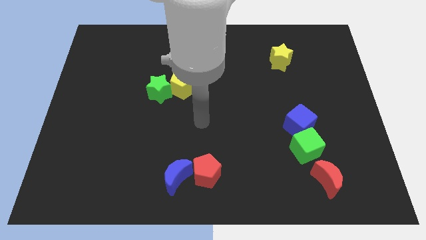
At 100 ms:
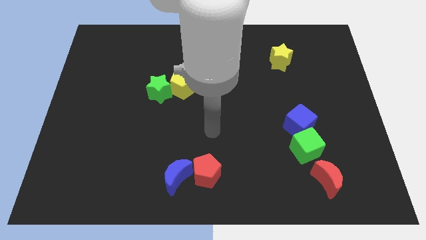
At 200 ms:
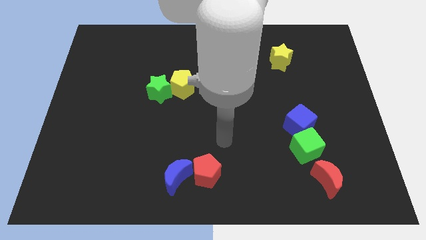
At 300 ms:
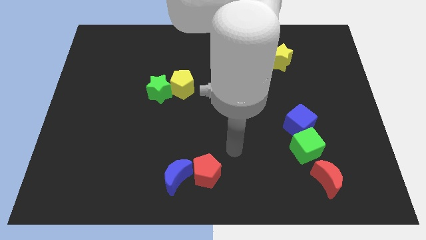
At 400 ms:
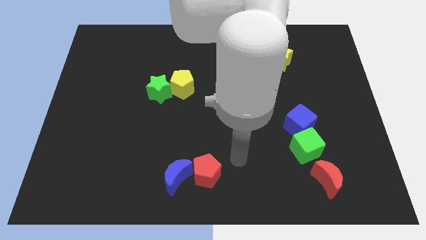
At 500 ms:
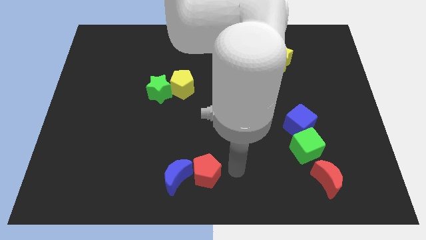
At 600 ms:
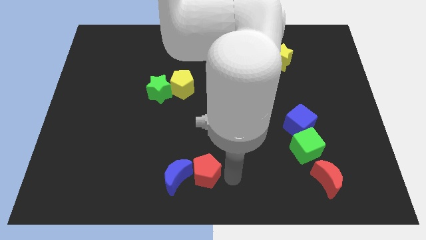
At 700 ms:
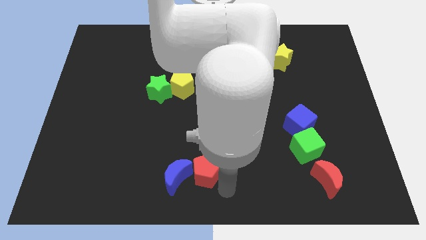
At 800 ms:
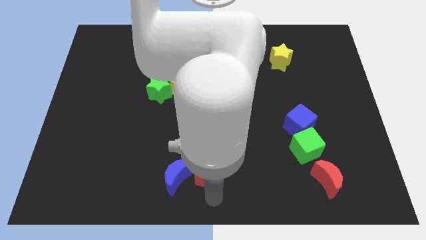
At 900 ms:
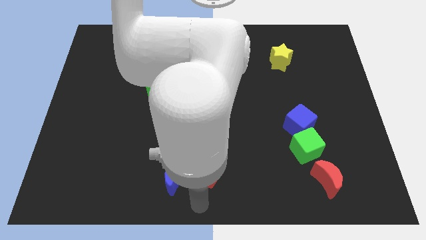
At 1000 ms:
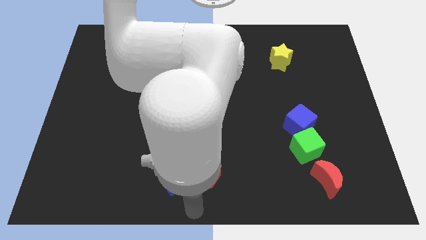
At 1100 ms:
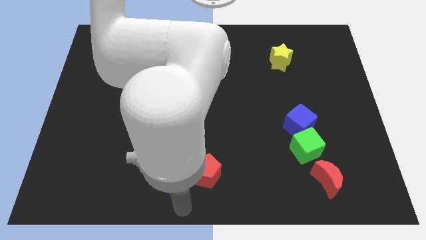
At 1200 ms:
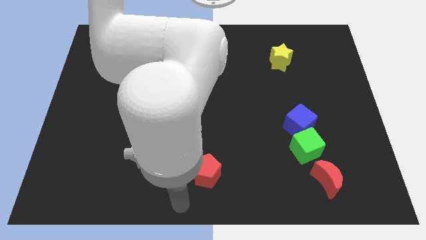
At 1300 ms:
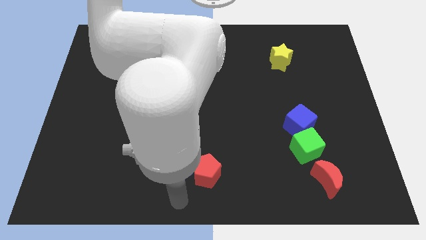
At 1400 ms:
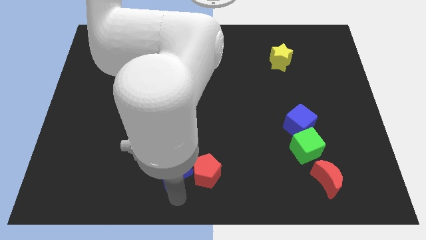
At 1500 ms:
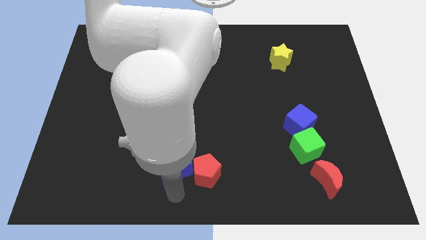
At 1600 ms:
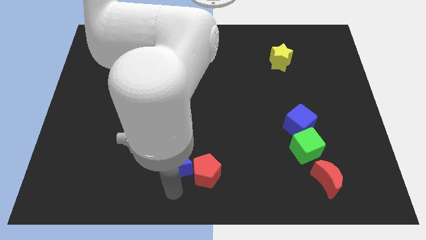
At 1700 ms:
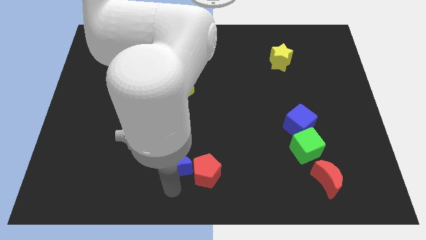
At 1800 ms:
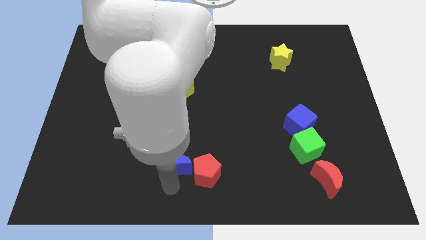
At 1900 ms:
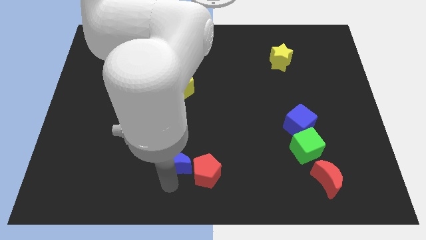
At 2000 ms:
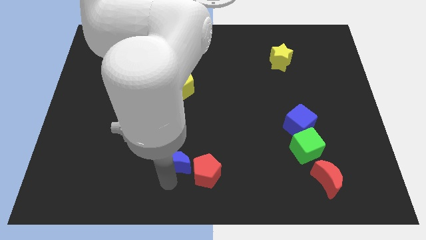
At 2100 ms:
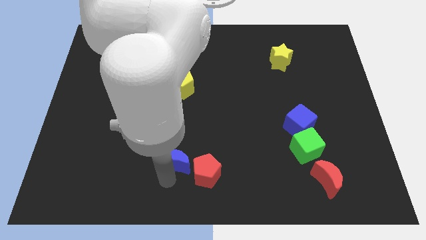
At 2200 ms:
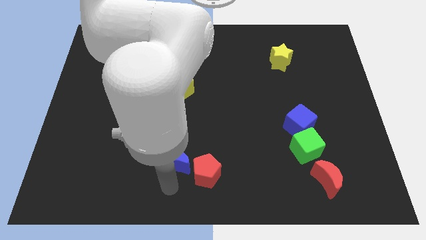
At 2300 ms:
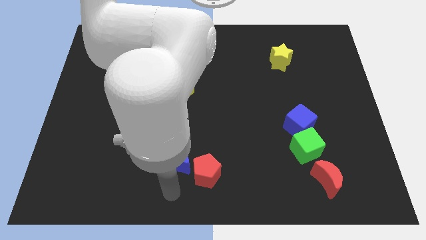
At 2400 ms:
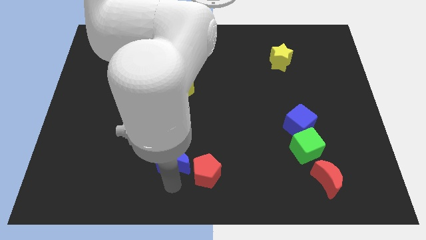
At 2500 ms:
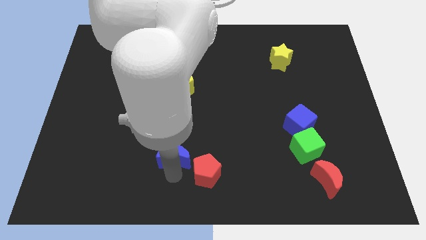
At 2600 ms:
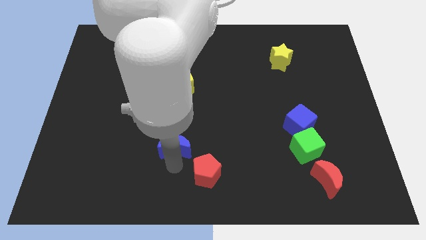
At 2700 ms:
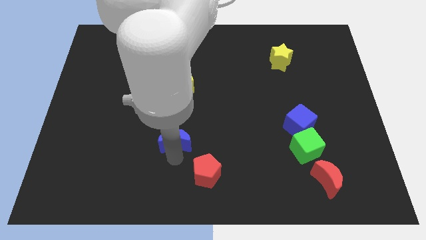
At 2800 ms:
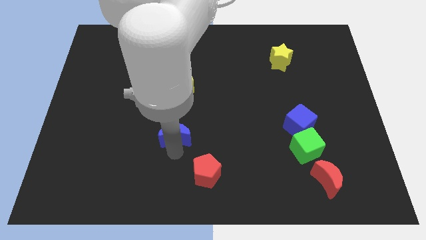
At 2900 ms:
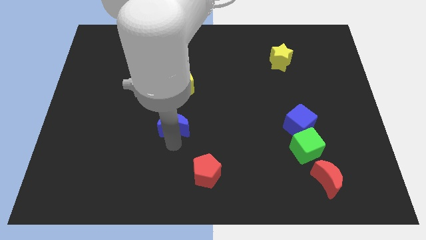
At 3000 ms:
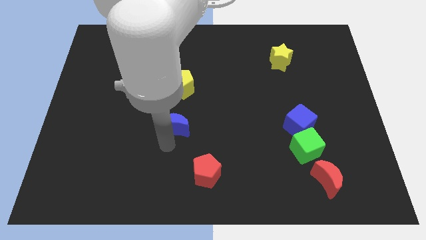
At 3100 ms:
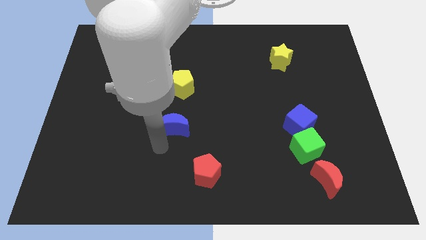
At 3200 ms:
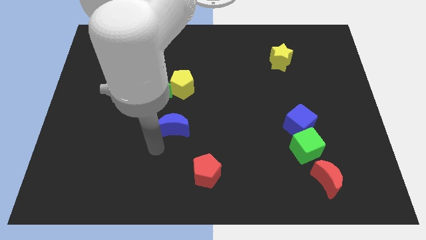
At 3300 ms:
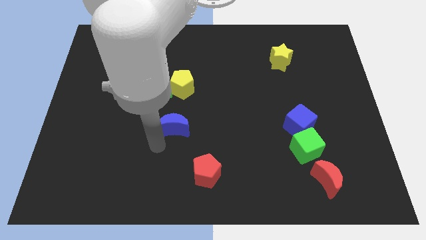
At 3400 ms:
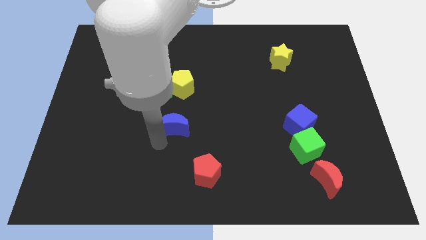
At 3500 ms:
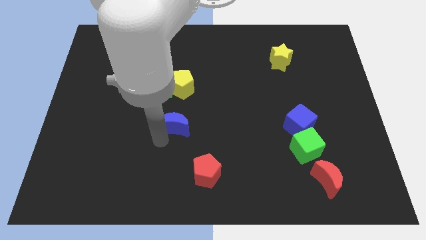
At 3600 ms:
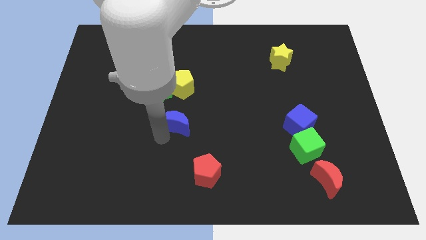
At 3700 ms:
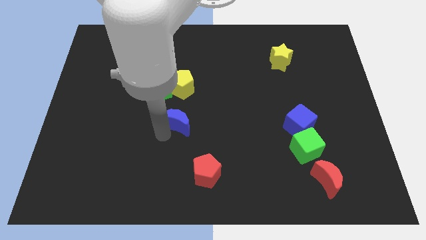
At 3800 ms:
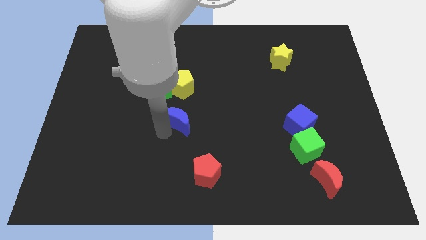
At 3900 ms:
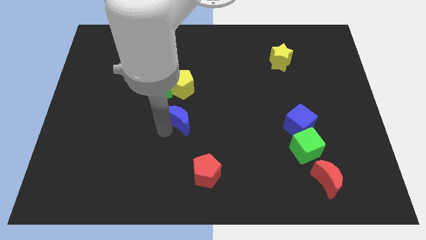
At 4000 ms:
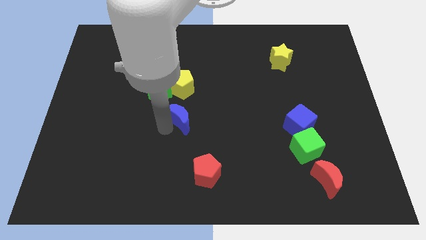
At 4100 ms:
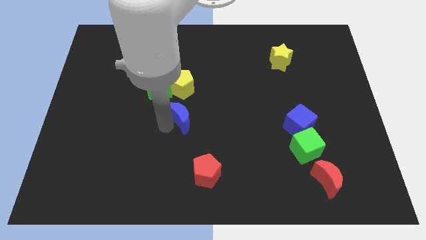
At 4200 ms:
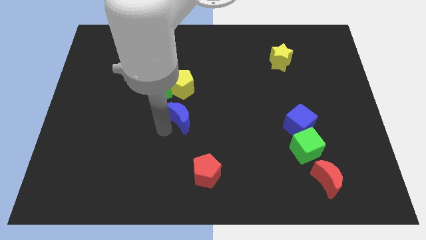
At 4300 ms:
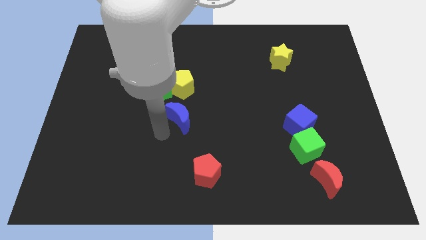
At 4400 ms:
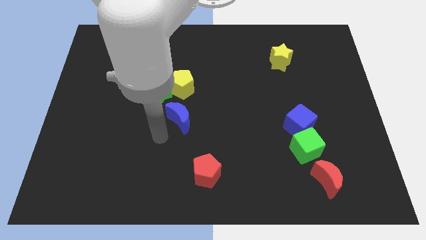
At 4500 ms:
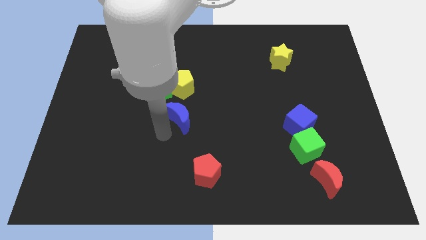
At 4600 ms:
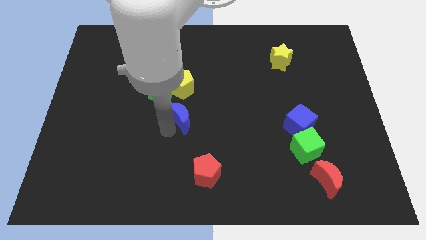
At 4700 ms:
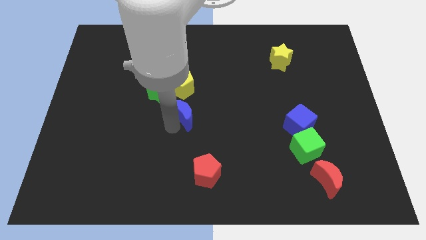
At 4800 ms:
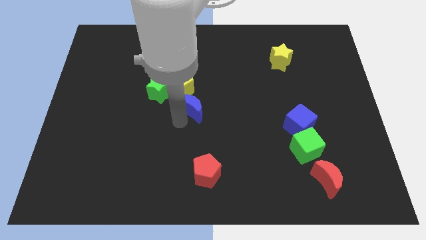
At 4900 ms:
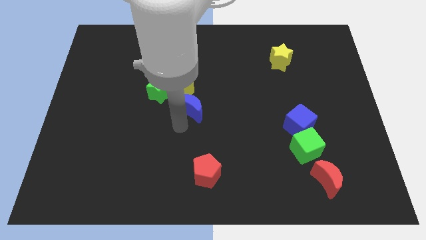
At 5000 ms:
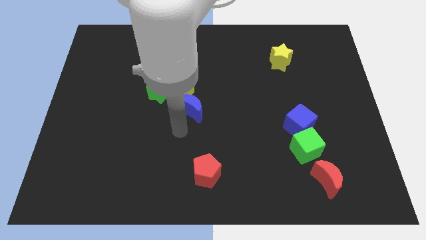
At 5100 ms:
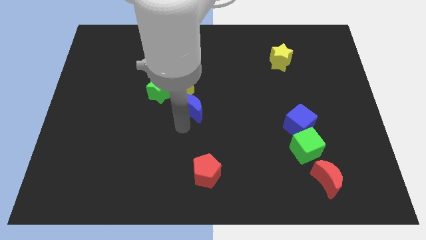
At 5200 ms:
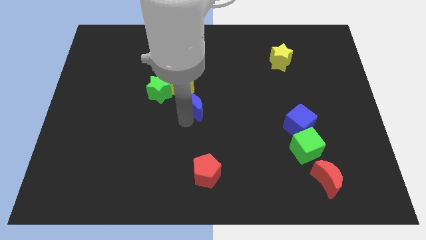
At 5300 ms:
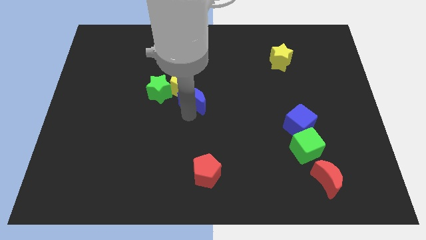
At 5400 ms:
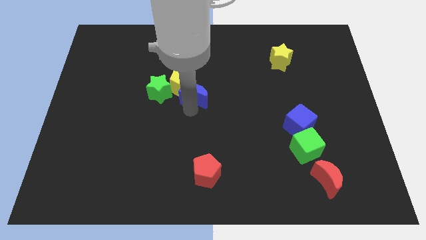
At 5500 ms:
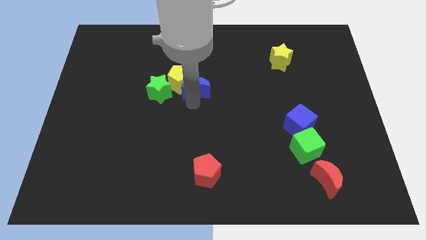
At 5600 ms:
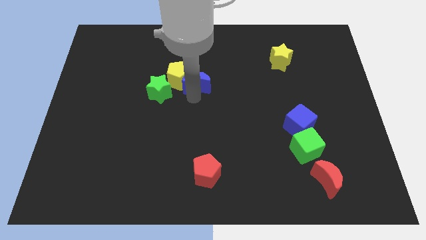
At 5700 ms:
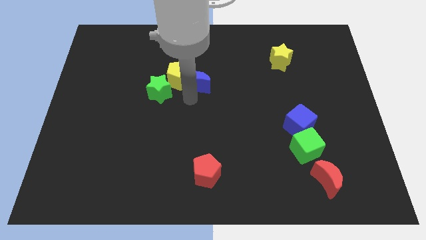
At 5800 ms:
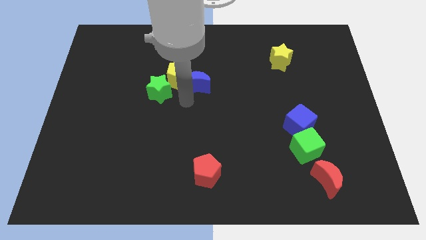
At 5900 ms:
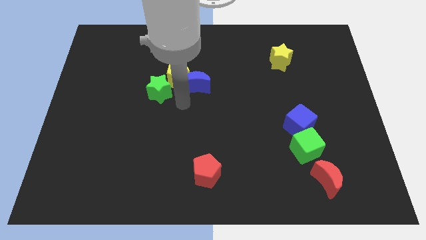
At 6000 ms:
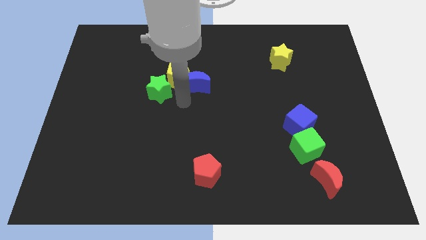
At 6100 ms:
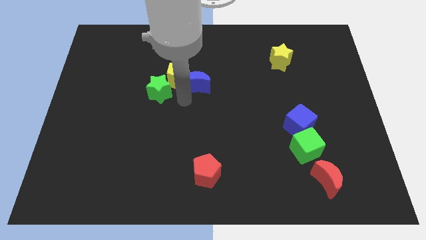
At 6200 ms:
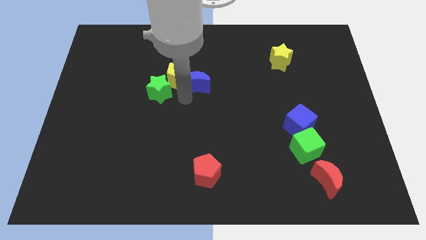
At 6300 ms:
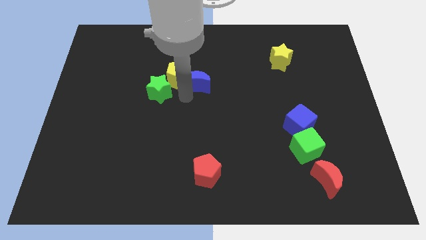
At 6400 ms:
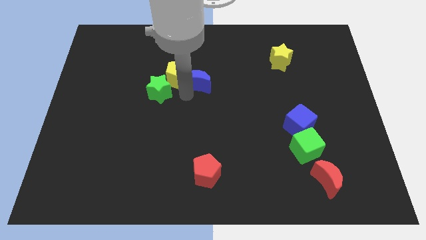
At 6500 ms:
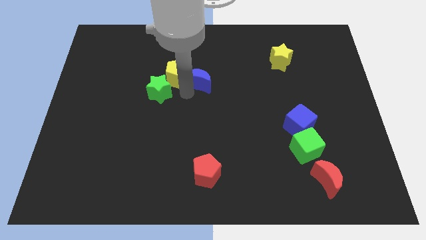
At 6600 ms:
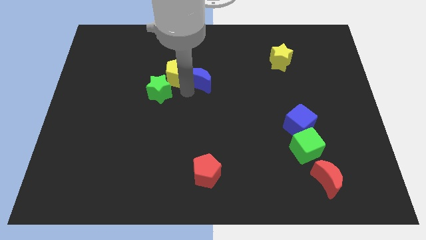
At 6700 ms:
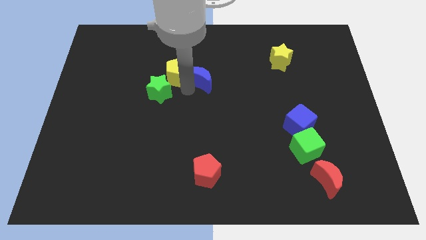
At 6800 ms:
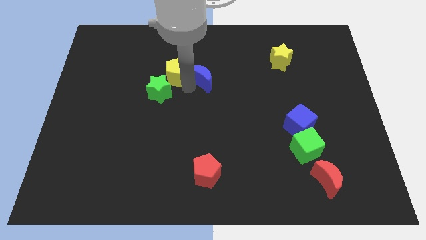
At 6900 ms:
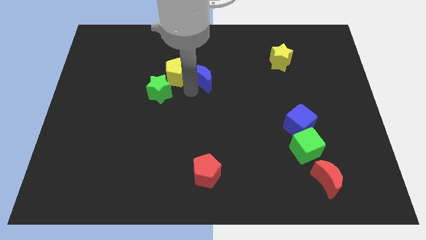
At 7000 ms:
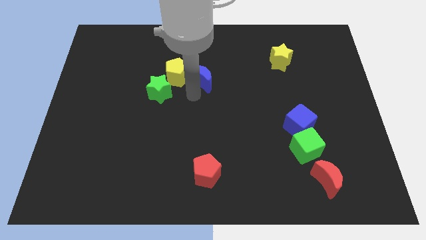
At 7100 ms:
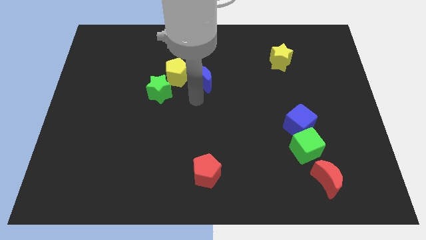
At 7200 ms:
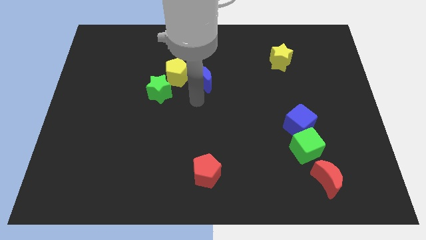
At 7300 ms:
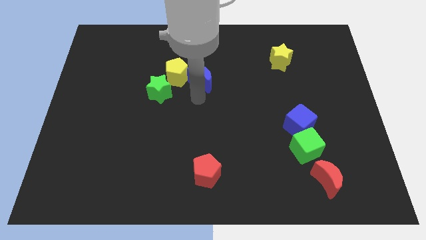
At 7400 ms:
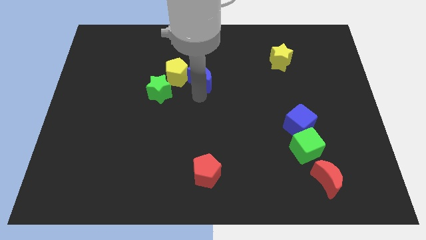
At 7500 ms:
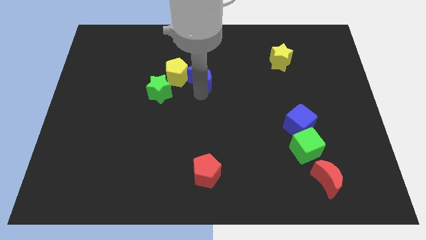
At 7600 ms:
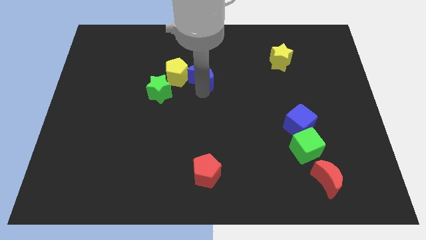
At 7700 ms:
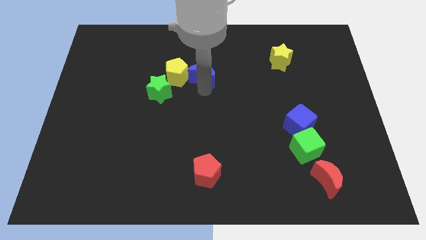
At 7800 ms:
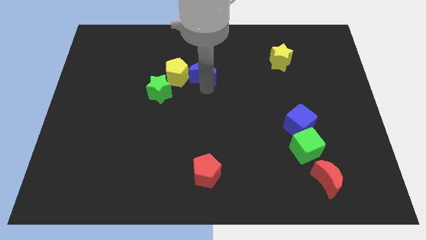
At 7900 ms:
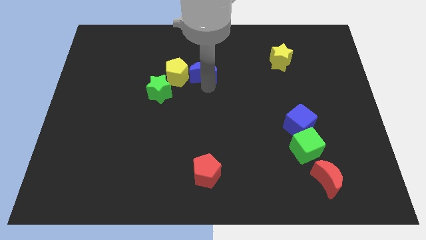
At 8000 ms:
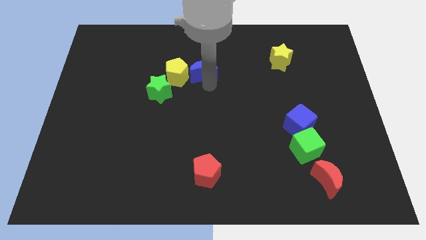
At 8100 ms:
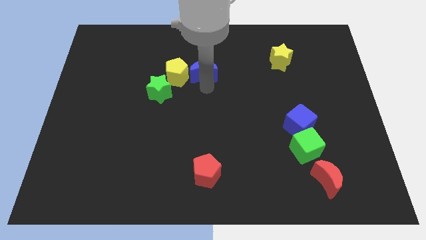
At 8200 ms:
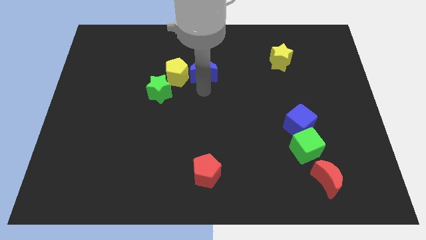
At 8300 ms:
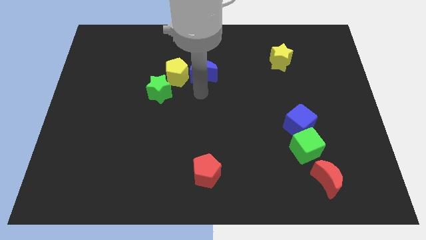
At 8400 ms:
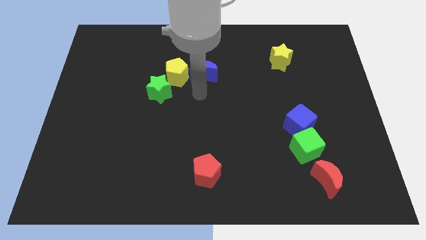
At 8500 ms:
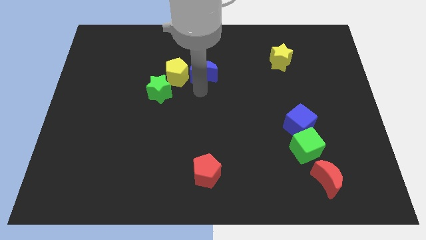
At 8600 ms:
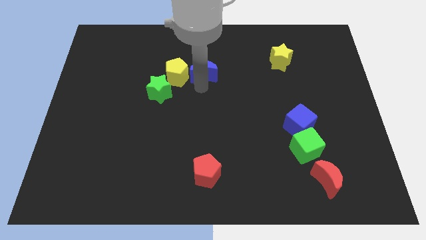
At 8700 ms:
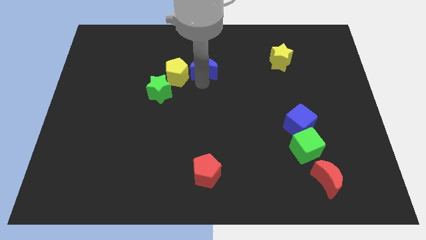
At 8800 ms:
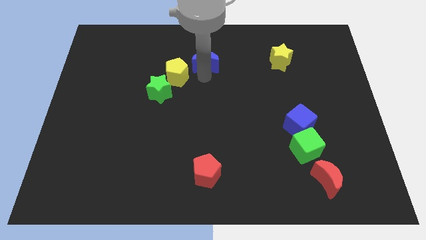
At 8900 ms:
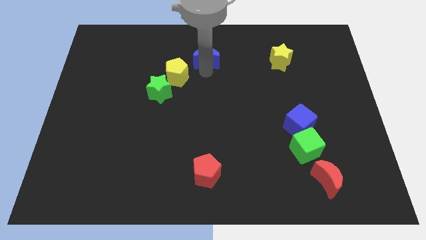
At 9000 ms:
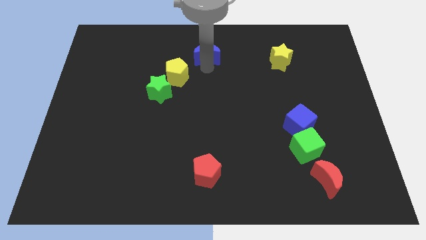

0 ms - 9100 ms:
move the blue moon to the top
